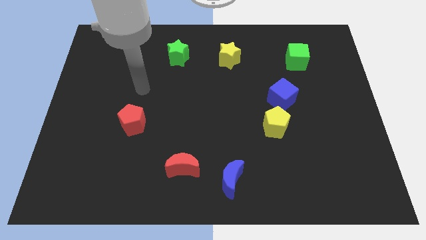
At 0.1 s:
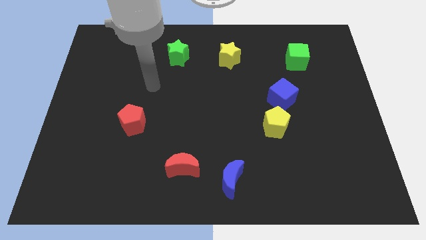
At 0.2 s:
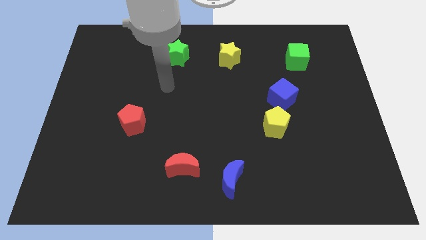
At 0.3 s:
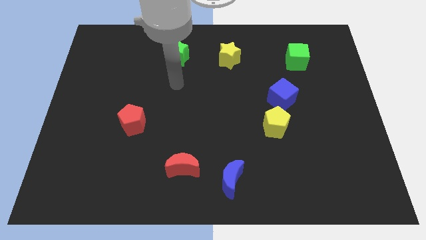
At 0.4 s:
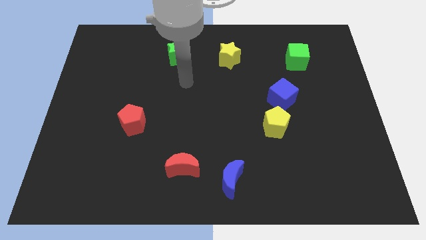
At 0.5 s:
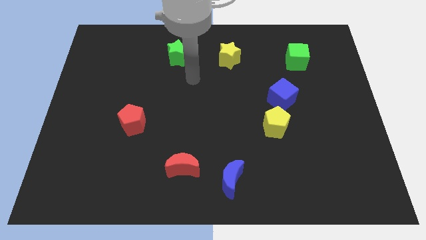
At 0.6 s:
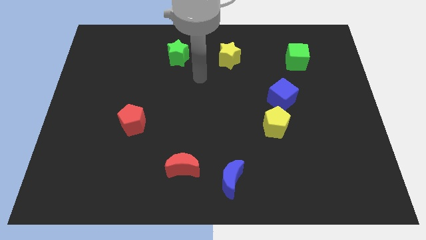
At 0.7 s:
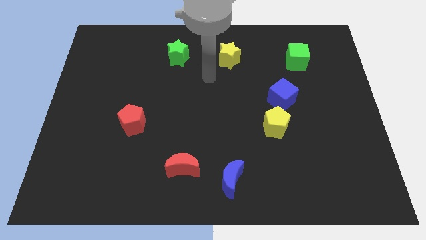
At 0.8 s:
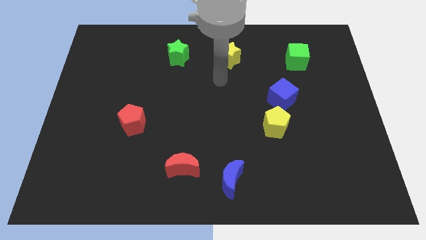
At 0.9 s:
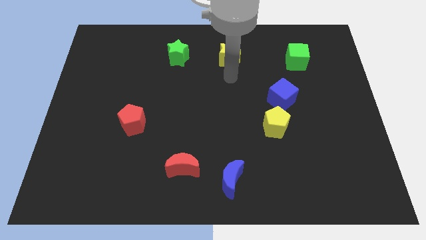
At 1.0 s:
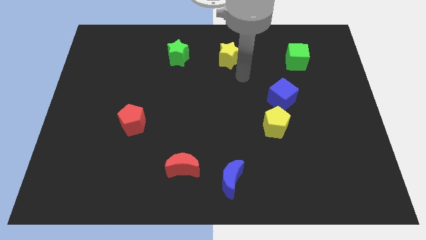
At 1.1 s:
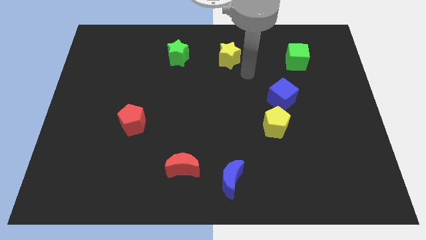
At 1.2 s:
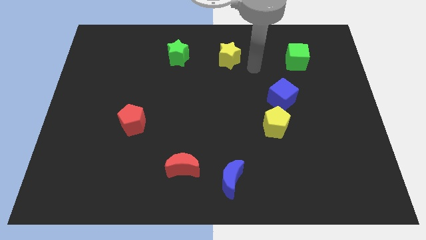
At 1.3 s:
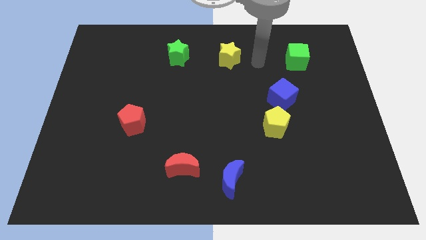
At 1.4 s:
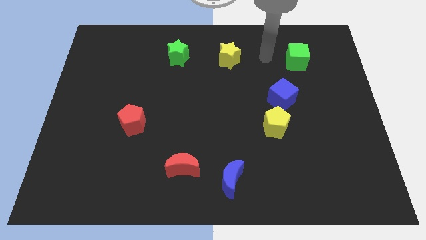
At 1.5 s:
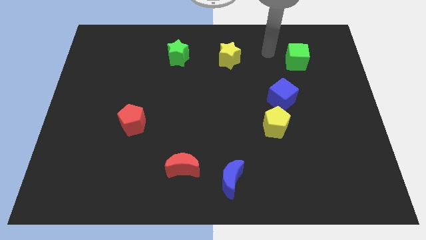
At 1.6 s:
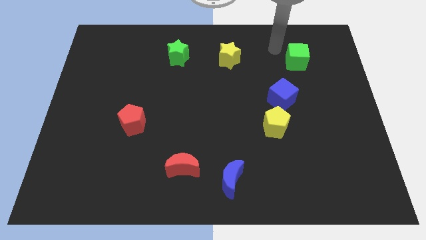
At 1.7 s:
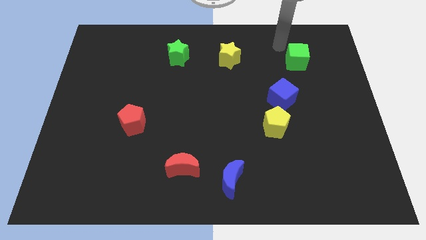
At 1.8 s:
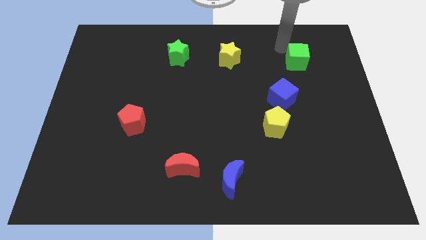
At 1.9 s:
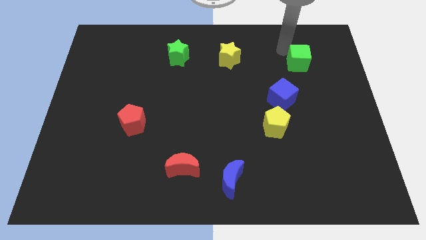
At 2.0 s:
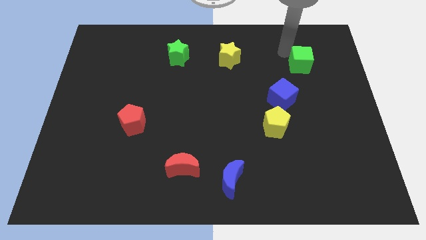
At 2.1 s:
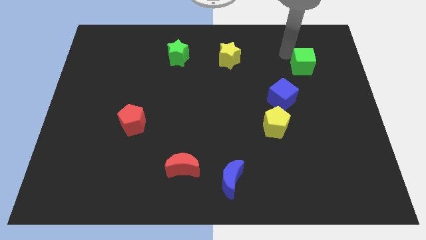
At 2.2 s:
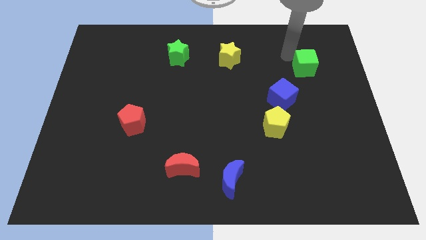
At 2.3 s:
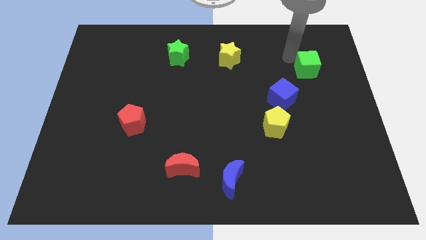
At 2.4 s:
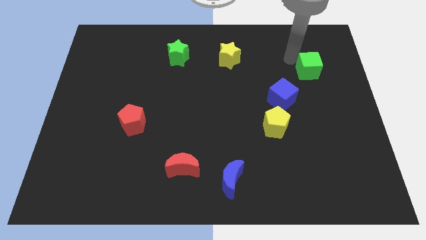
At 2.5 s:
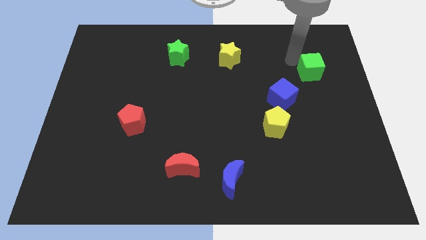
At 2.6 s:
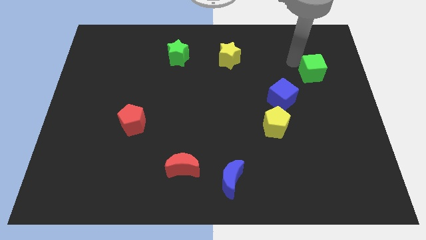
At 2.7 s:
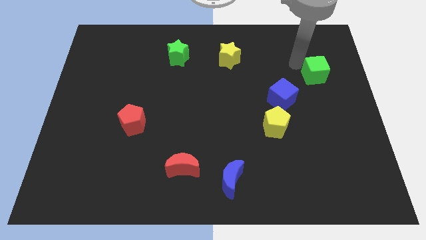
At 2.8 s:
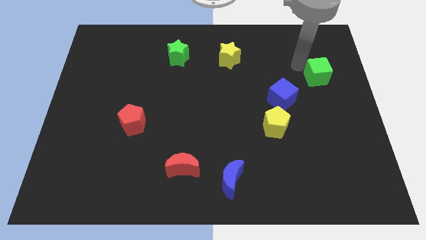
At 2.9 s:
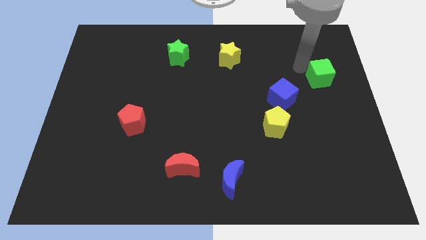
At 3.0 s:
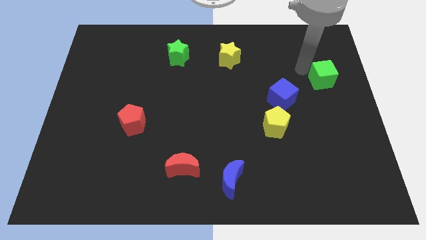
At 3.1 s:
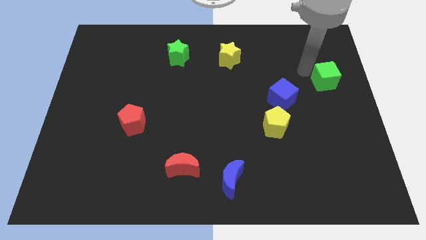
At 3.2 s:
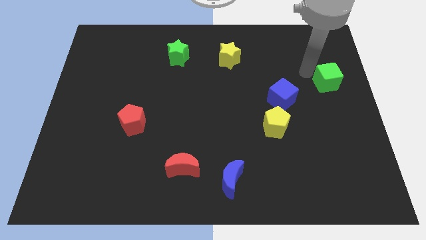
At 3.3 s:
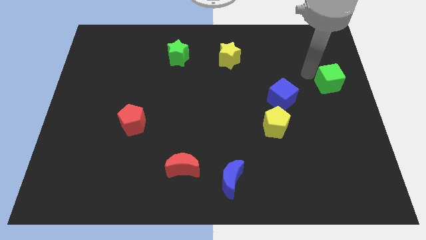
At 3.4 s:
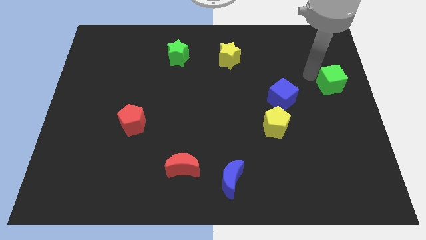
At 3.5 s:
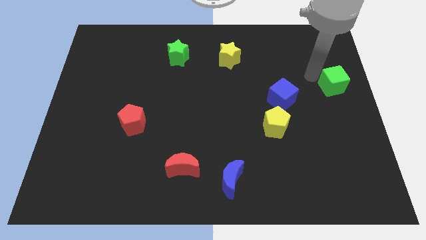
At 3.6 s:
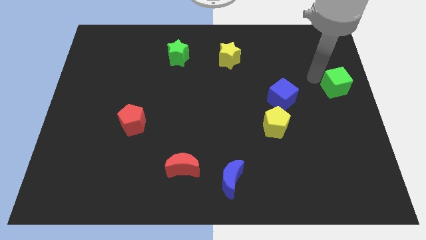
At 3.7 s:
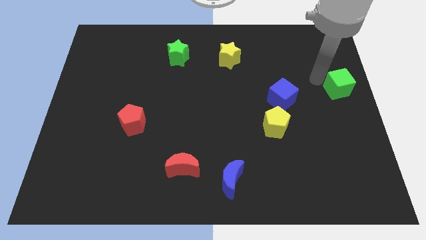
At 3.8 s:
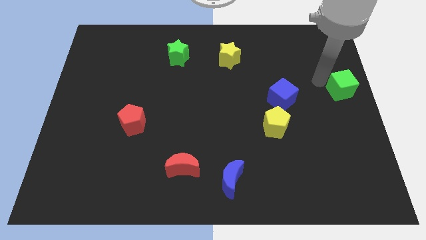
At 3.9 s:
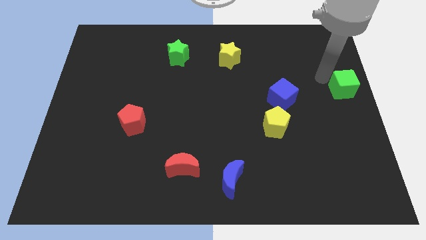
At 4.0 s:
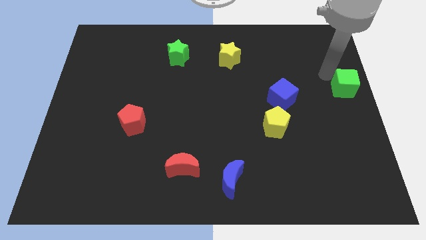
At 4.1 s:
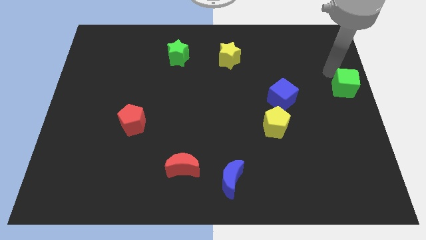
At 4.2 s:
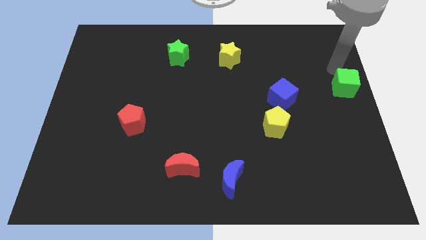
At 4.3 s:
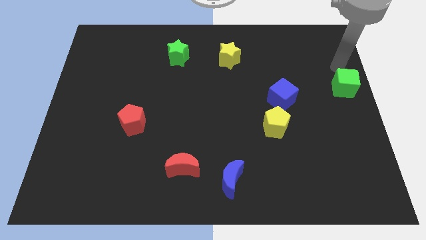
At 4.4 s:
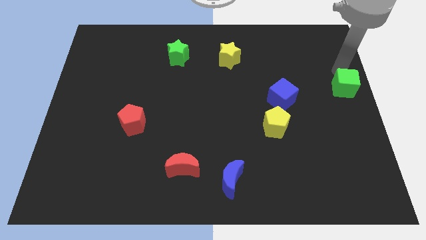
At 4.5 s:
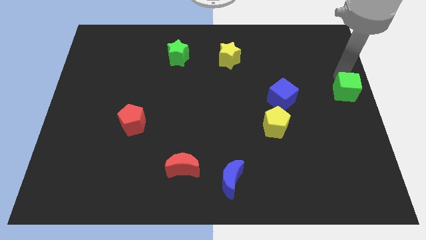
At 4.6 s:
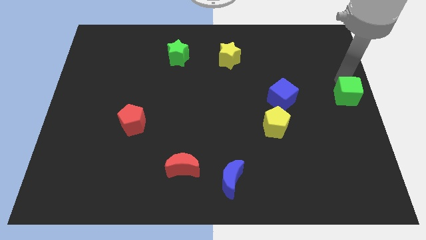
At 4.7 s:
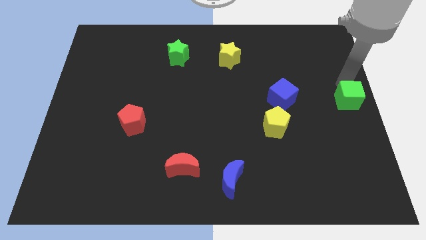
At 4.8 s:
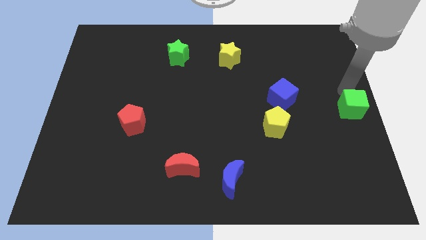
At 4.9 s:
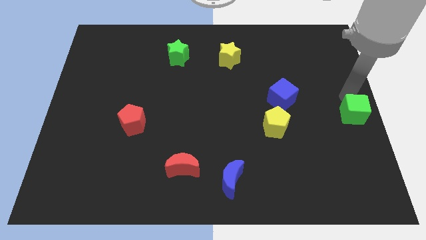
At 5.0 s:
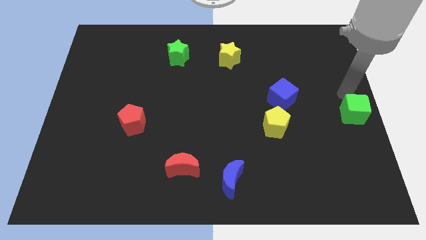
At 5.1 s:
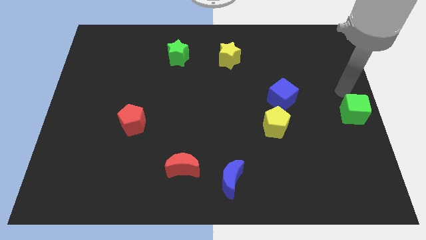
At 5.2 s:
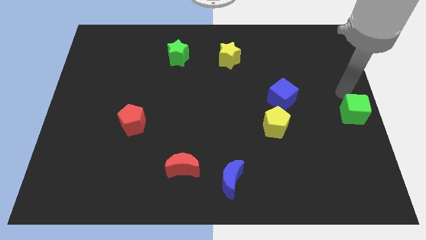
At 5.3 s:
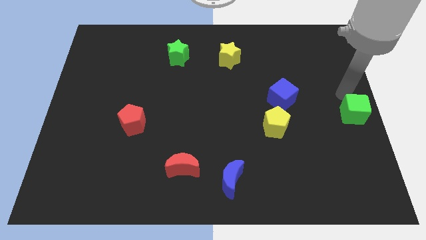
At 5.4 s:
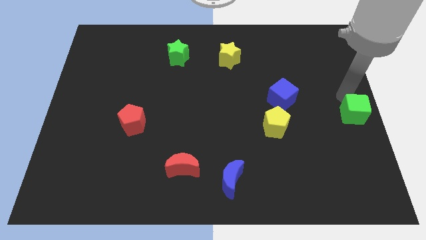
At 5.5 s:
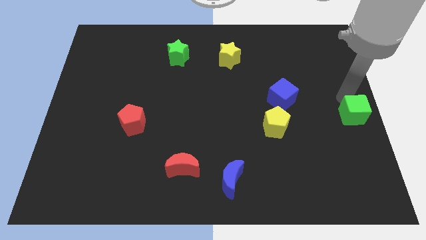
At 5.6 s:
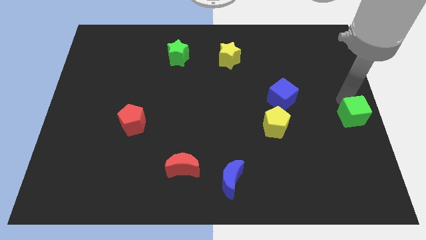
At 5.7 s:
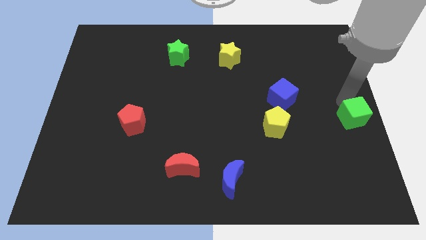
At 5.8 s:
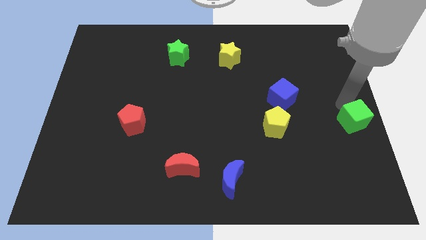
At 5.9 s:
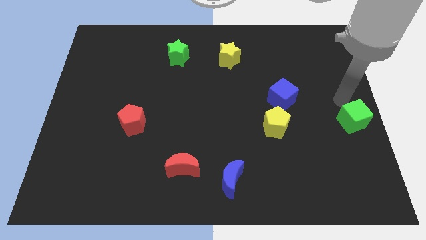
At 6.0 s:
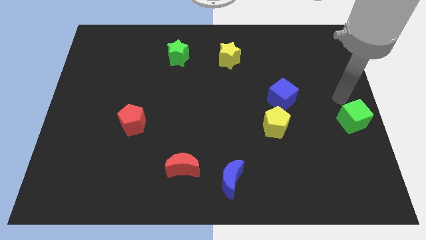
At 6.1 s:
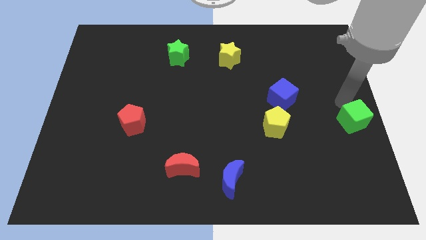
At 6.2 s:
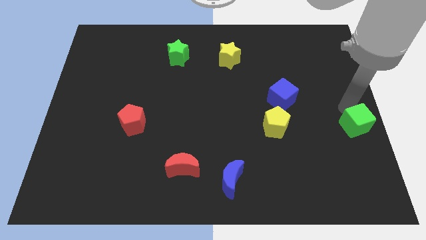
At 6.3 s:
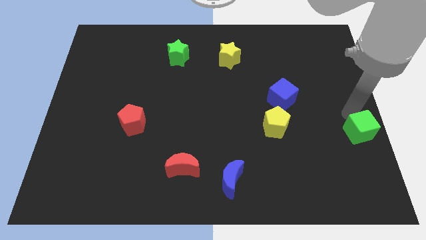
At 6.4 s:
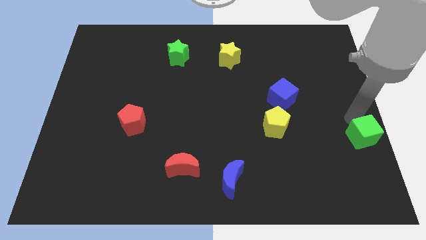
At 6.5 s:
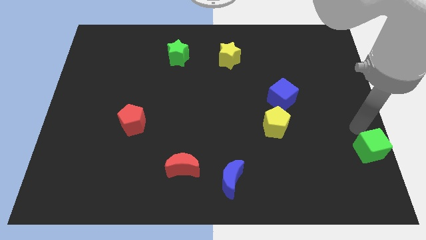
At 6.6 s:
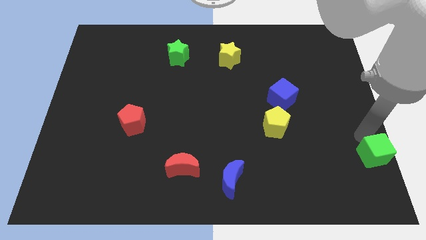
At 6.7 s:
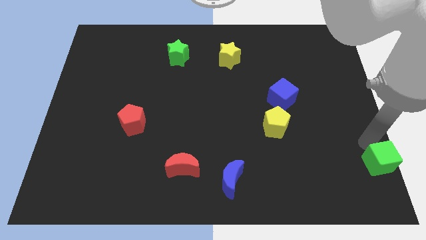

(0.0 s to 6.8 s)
push the green cube to the lower right corner
